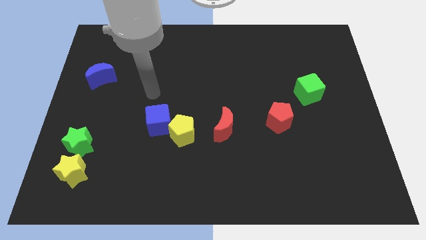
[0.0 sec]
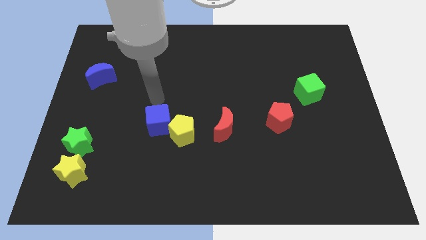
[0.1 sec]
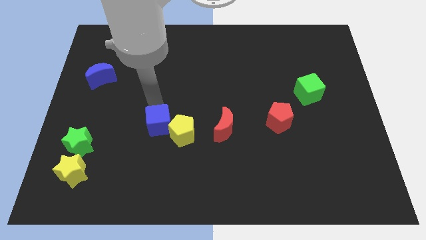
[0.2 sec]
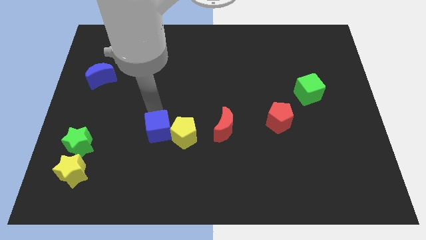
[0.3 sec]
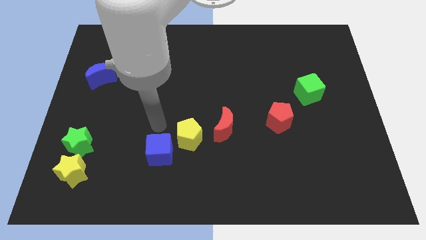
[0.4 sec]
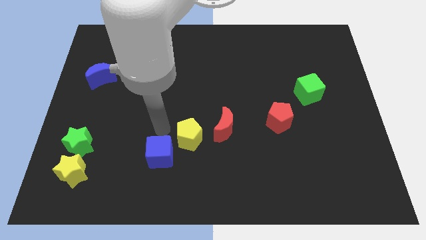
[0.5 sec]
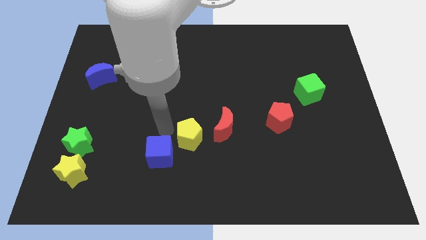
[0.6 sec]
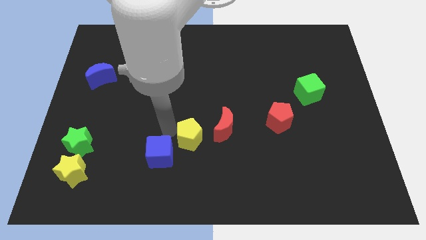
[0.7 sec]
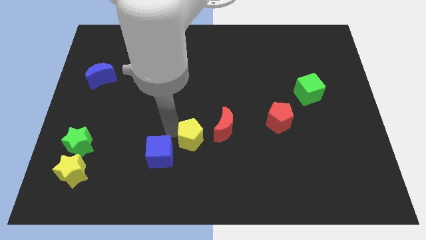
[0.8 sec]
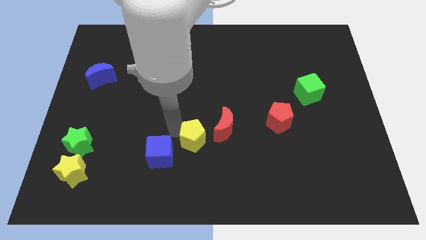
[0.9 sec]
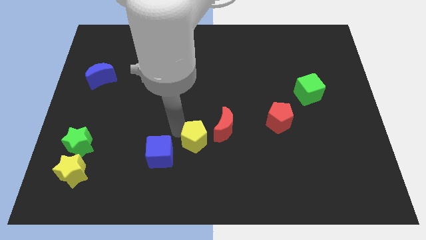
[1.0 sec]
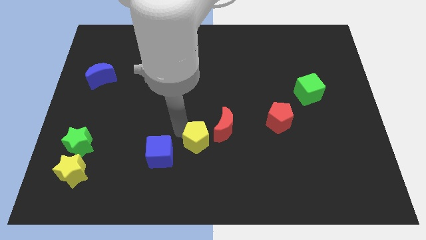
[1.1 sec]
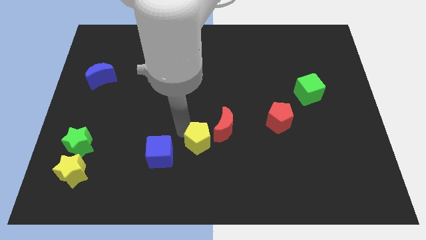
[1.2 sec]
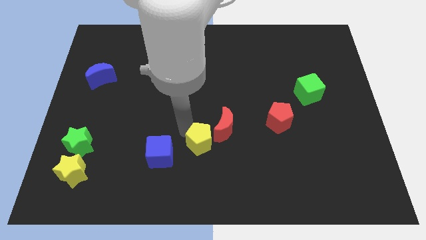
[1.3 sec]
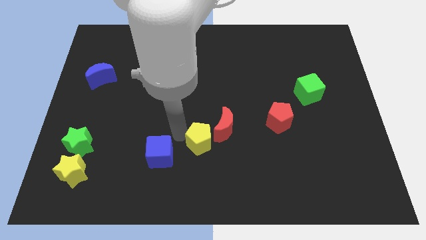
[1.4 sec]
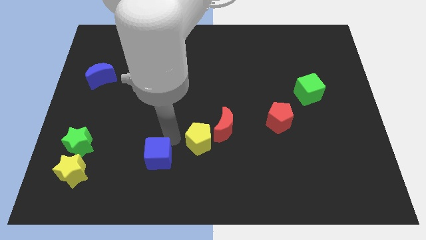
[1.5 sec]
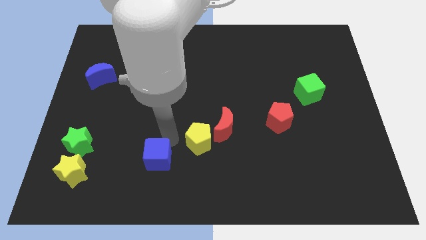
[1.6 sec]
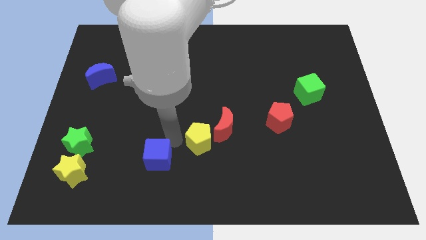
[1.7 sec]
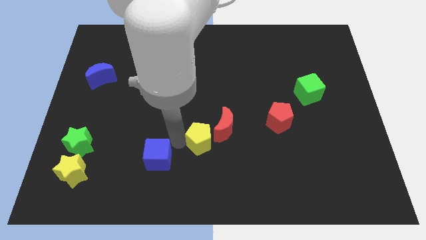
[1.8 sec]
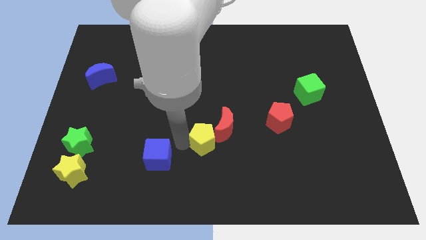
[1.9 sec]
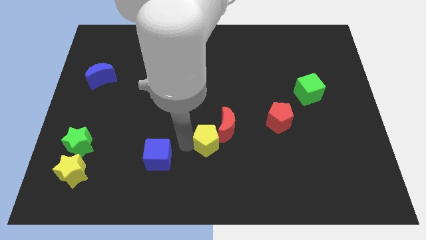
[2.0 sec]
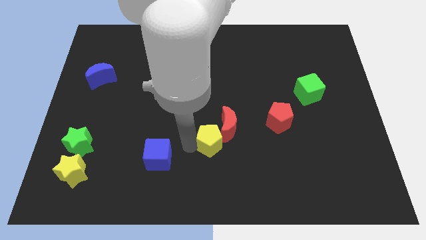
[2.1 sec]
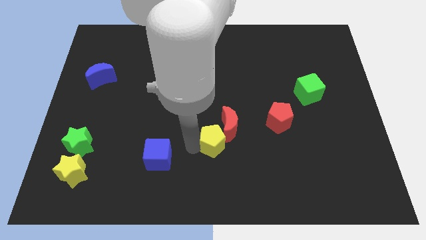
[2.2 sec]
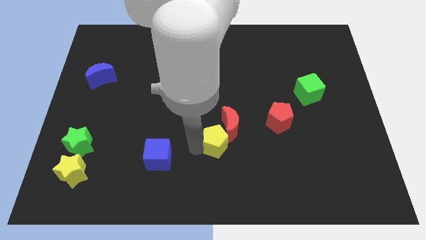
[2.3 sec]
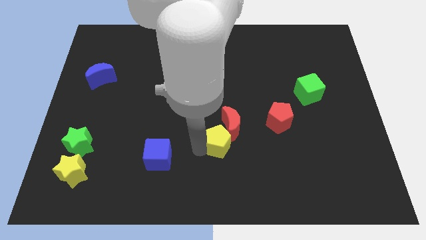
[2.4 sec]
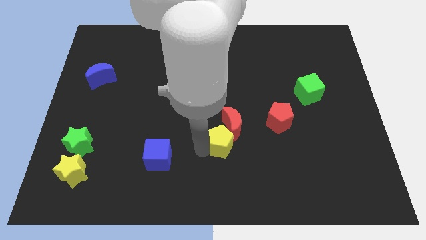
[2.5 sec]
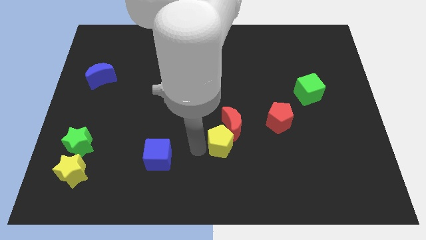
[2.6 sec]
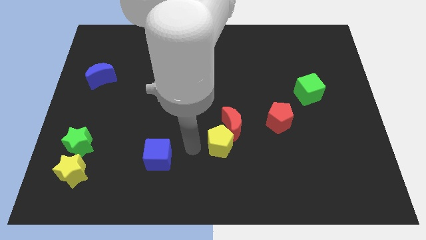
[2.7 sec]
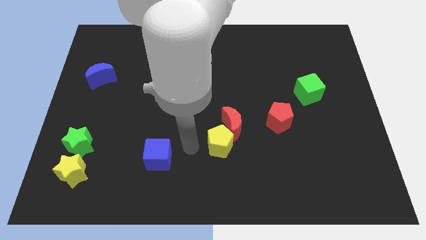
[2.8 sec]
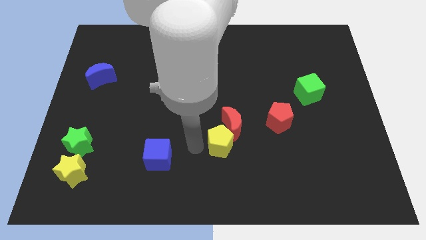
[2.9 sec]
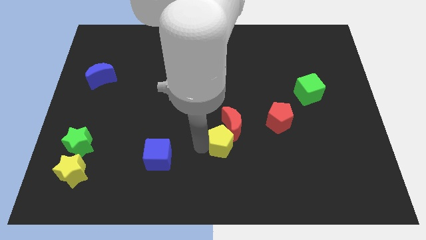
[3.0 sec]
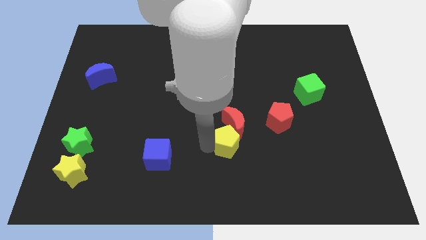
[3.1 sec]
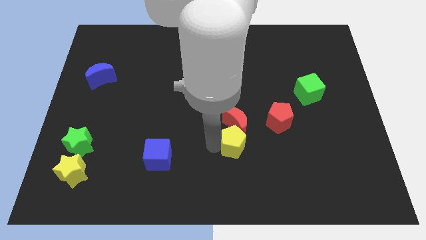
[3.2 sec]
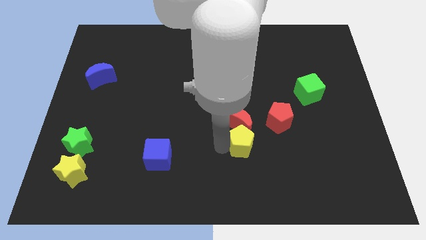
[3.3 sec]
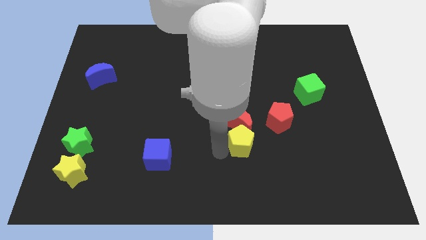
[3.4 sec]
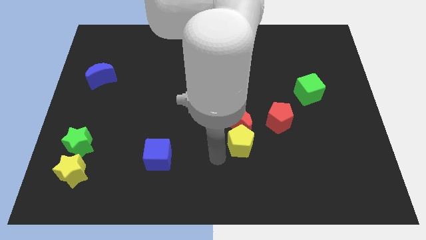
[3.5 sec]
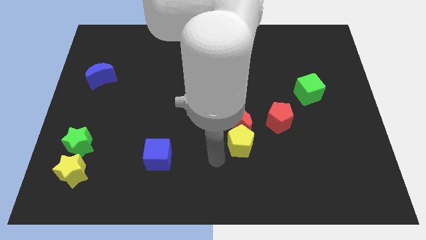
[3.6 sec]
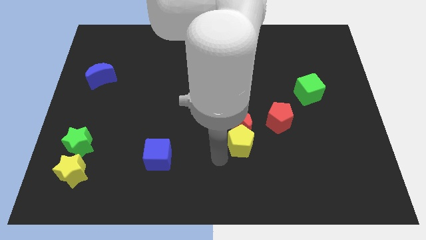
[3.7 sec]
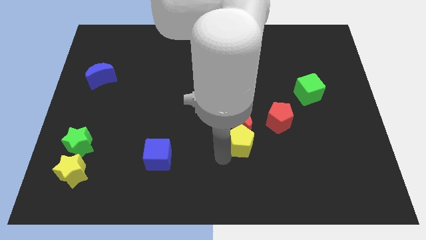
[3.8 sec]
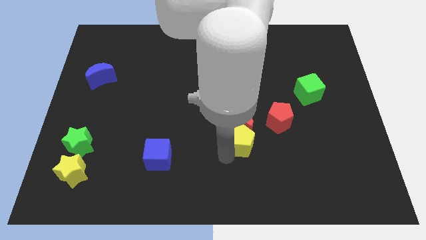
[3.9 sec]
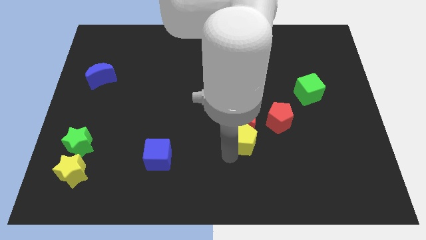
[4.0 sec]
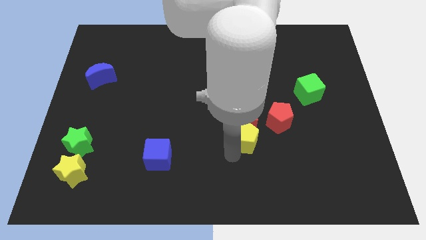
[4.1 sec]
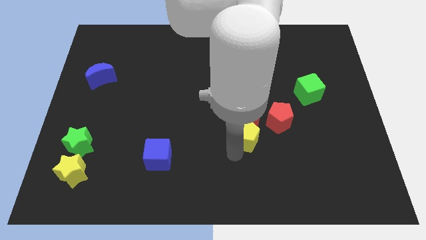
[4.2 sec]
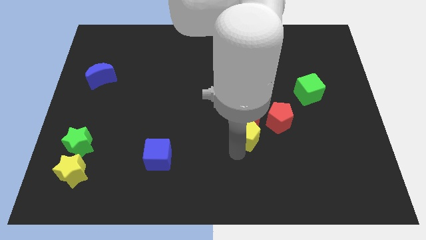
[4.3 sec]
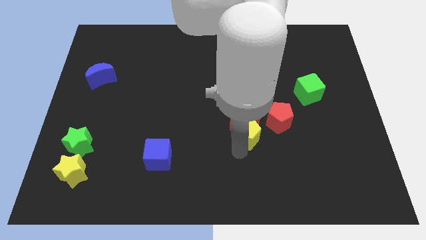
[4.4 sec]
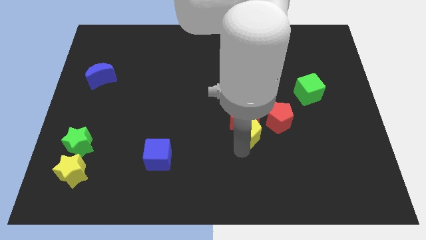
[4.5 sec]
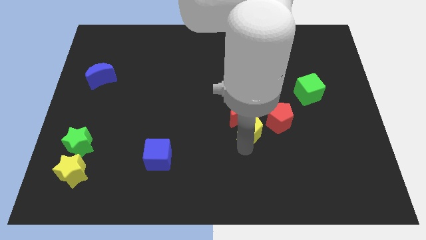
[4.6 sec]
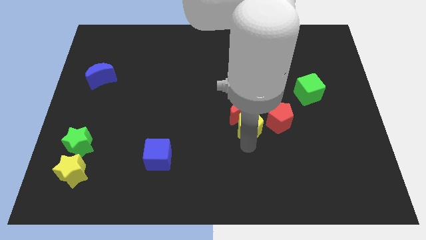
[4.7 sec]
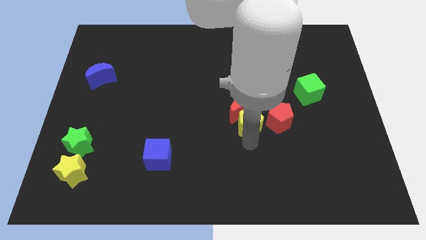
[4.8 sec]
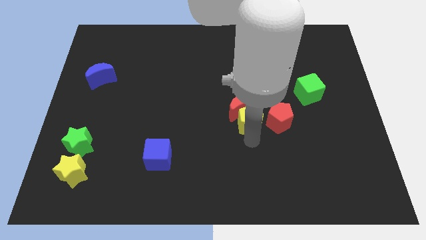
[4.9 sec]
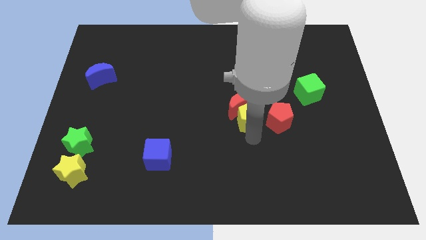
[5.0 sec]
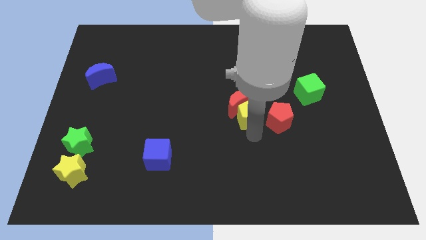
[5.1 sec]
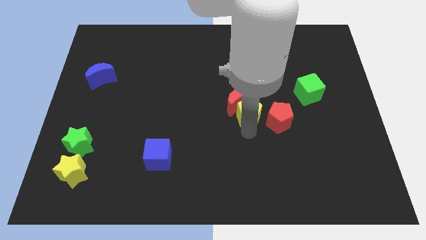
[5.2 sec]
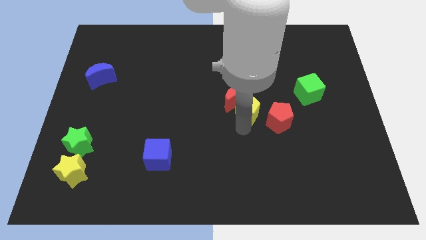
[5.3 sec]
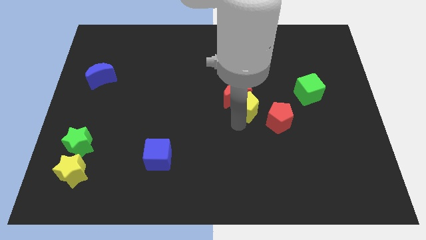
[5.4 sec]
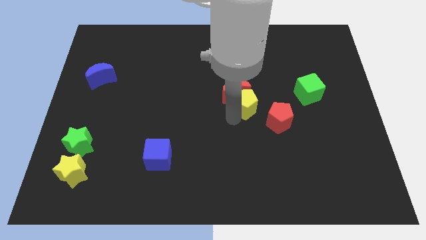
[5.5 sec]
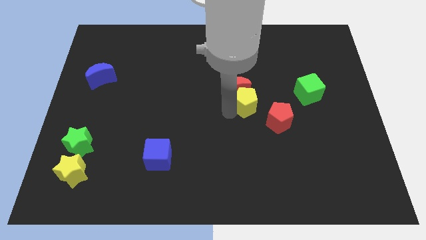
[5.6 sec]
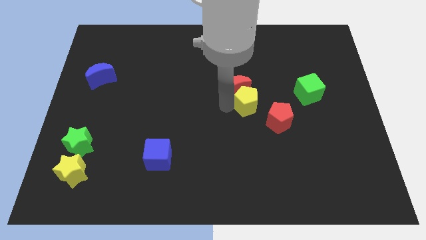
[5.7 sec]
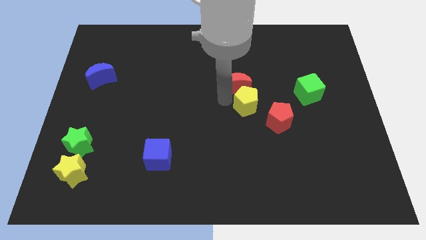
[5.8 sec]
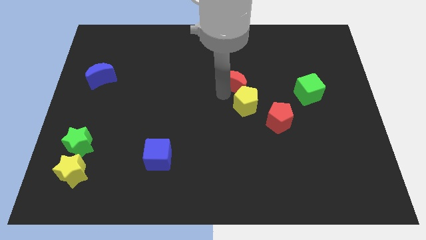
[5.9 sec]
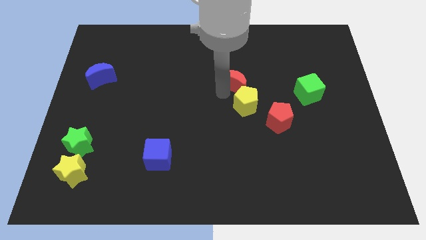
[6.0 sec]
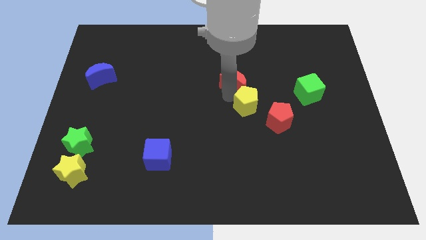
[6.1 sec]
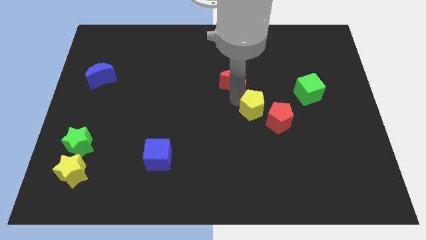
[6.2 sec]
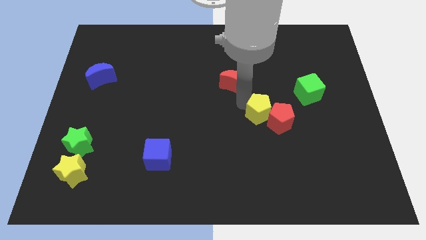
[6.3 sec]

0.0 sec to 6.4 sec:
move the yellow pentagon to the red pentagon
